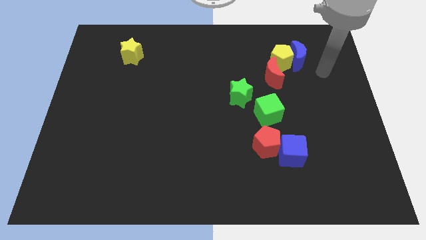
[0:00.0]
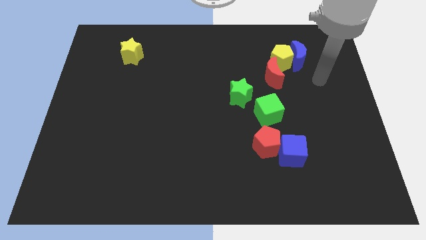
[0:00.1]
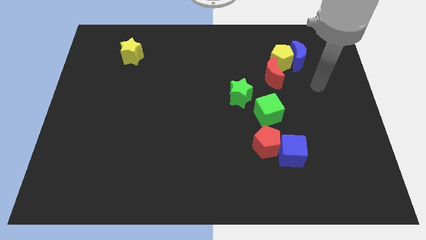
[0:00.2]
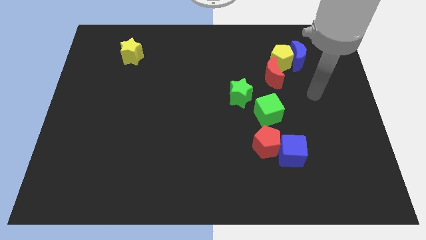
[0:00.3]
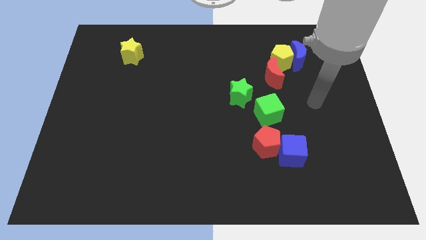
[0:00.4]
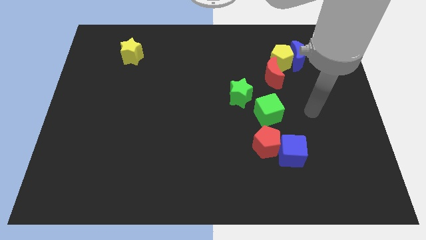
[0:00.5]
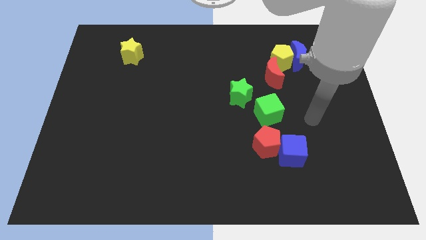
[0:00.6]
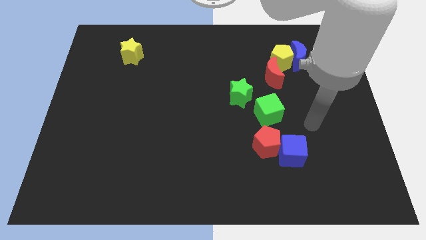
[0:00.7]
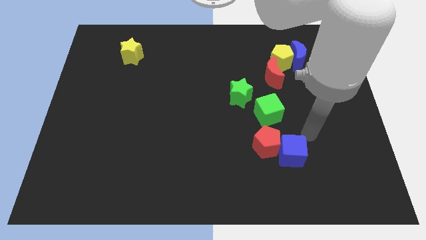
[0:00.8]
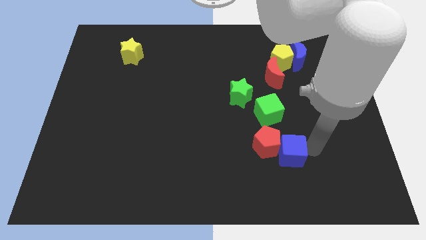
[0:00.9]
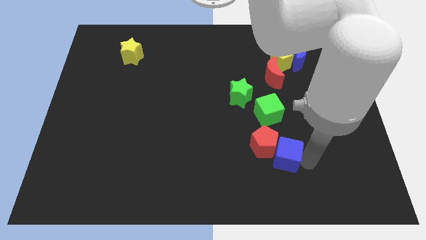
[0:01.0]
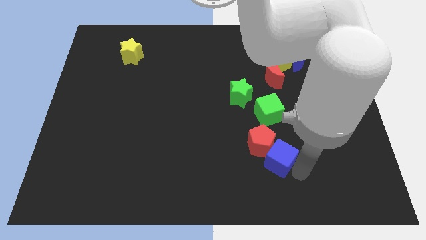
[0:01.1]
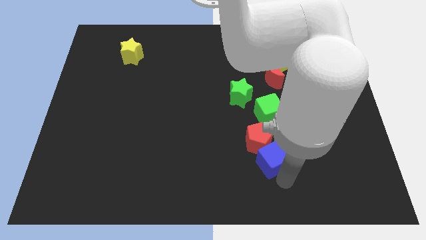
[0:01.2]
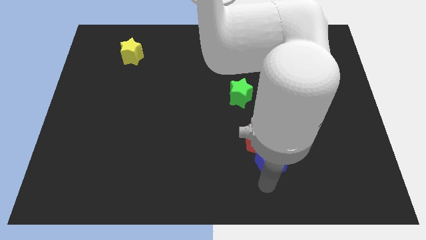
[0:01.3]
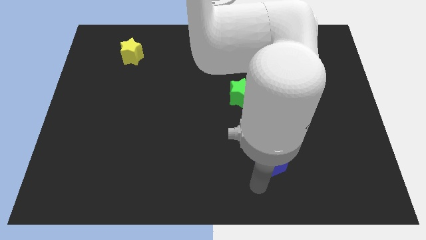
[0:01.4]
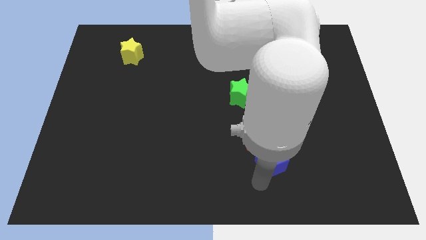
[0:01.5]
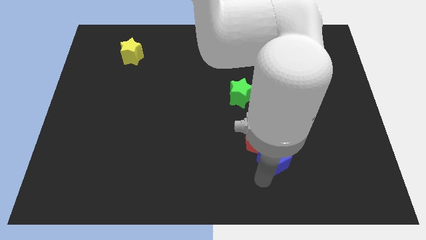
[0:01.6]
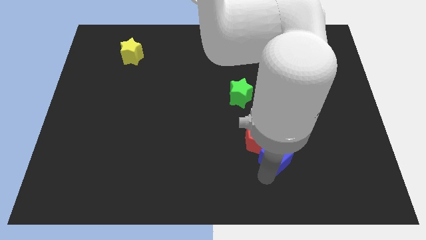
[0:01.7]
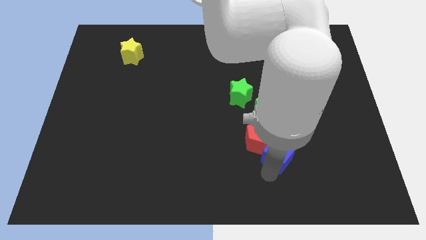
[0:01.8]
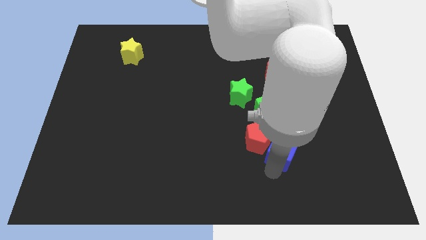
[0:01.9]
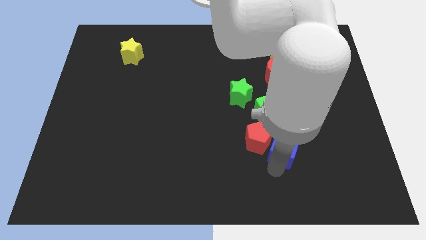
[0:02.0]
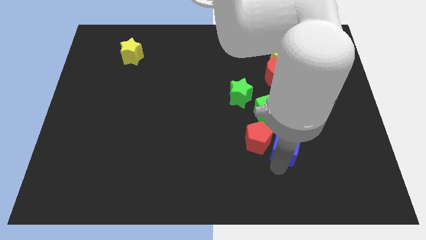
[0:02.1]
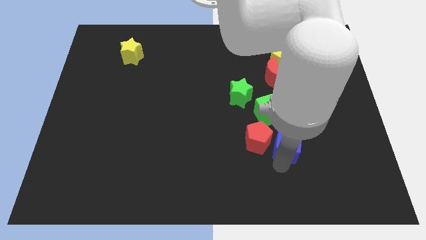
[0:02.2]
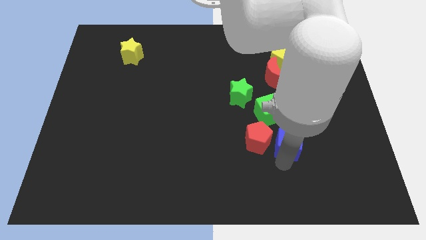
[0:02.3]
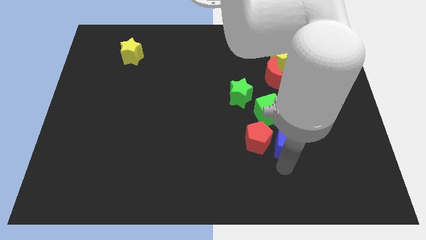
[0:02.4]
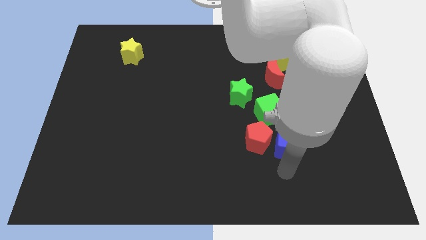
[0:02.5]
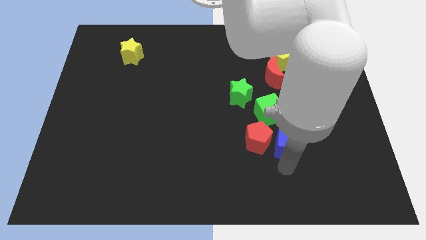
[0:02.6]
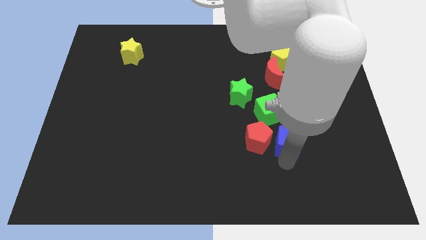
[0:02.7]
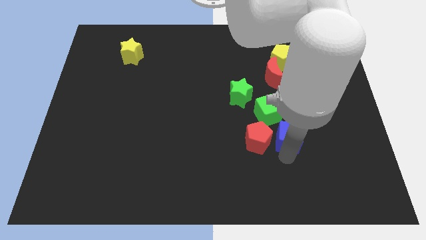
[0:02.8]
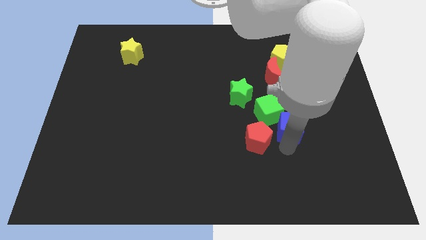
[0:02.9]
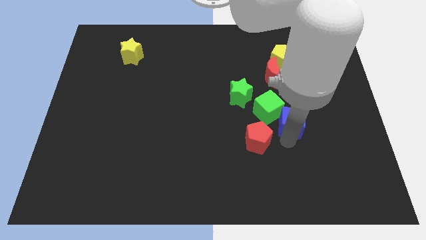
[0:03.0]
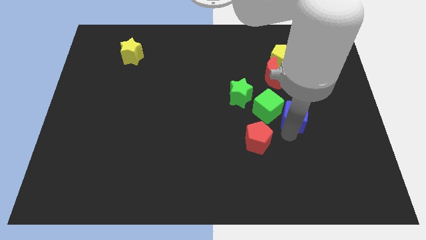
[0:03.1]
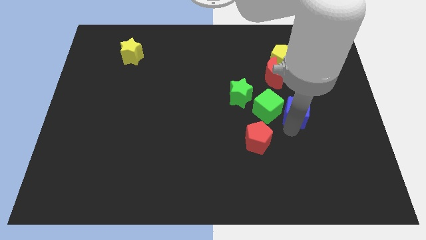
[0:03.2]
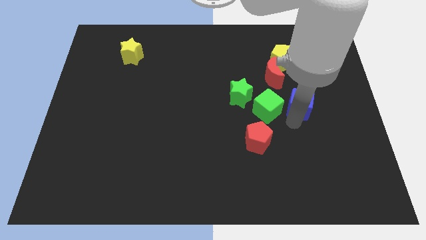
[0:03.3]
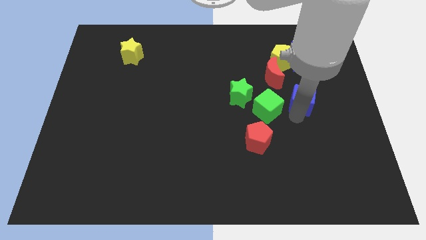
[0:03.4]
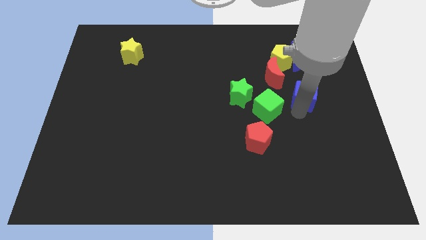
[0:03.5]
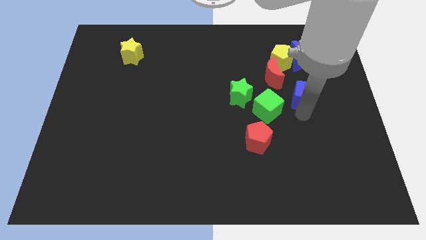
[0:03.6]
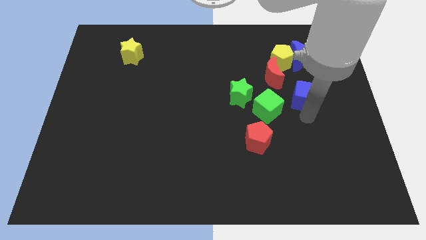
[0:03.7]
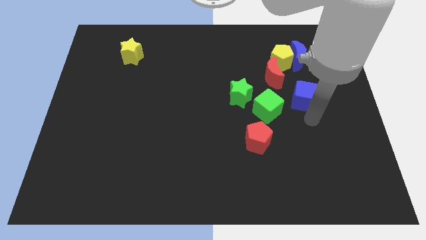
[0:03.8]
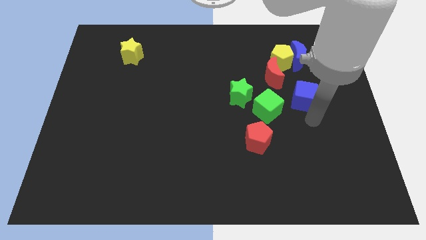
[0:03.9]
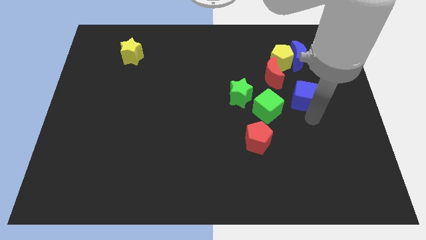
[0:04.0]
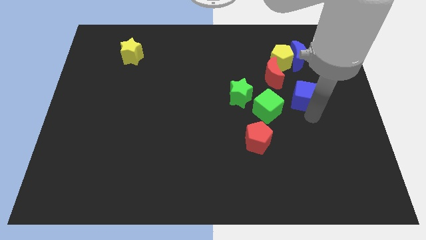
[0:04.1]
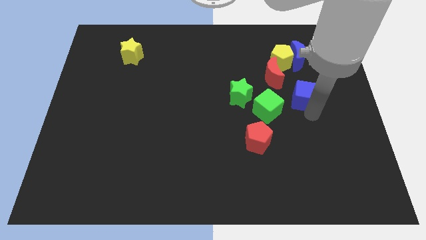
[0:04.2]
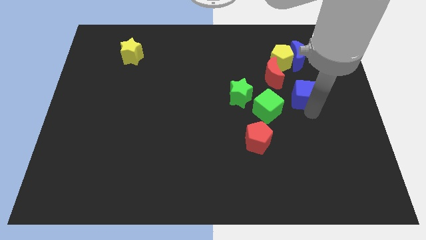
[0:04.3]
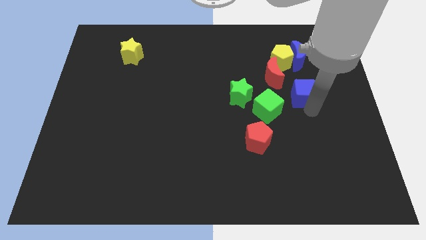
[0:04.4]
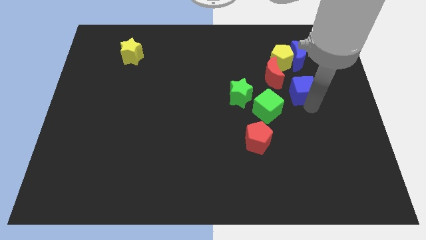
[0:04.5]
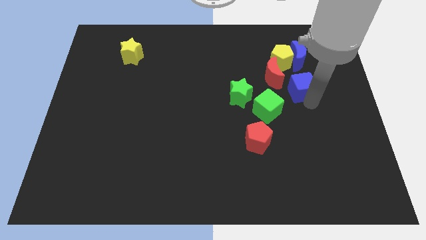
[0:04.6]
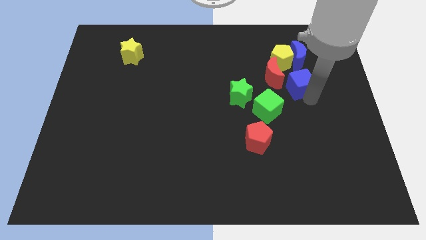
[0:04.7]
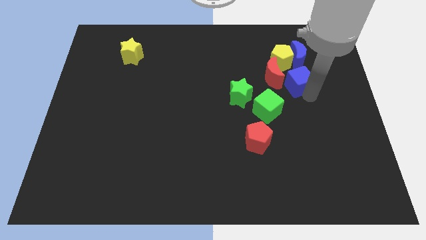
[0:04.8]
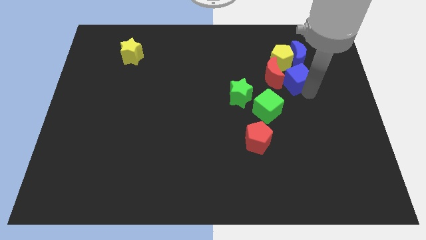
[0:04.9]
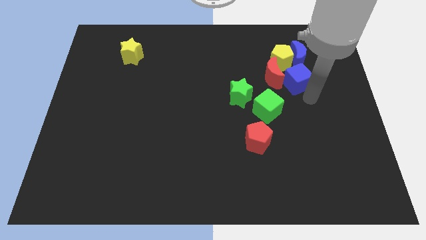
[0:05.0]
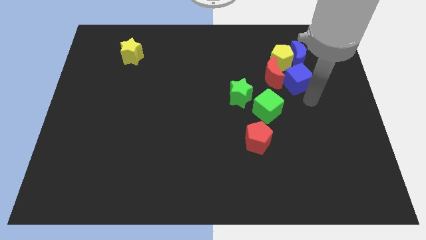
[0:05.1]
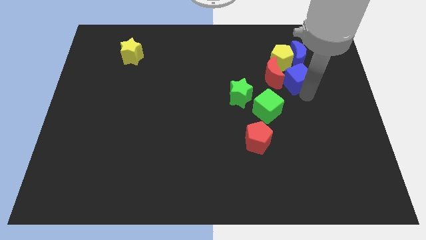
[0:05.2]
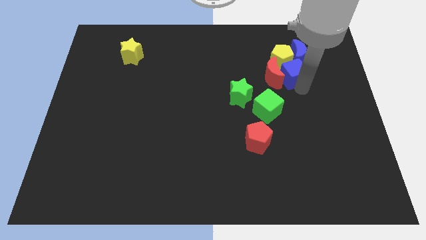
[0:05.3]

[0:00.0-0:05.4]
slide the blue cube close to the yellow pentagon

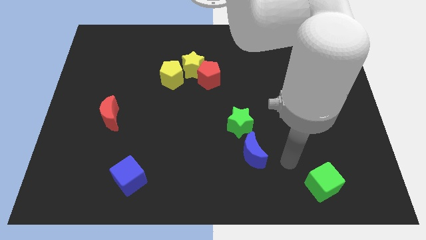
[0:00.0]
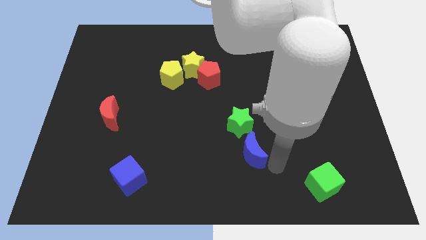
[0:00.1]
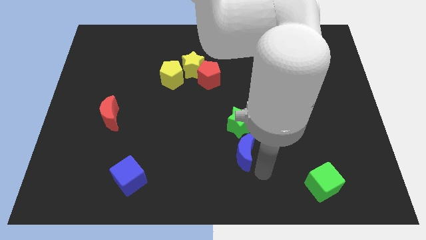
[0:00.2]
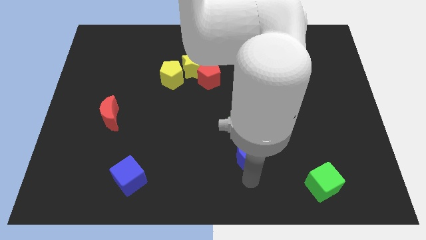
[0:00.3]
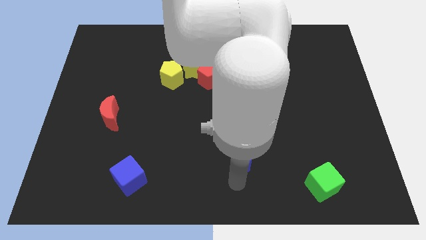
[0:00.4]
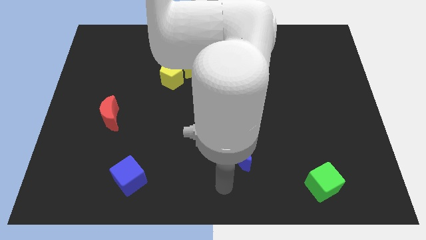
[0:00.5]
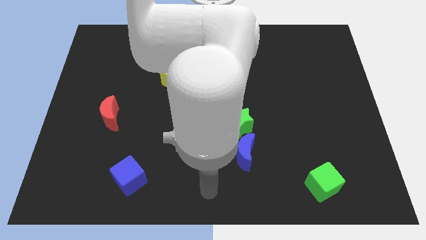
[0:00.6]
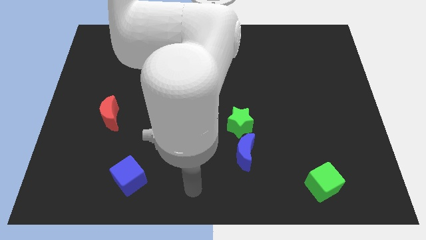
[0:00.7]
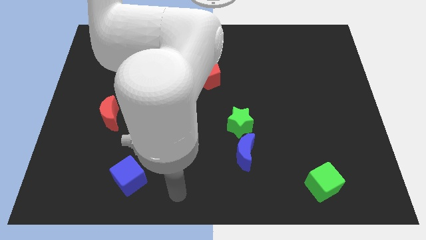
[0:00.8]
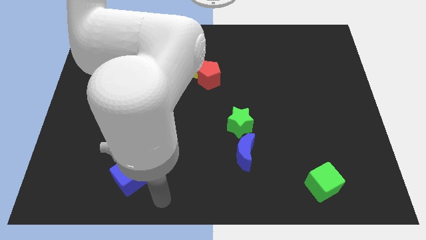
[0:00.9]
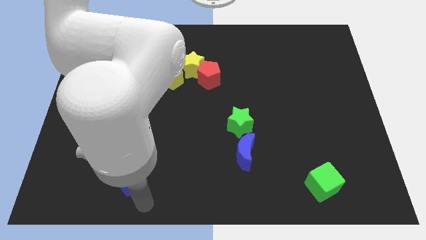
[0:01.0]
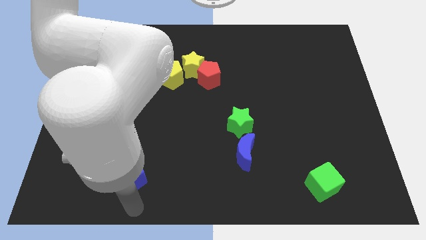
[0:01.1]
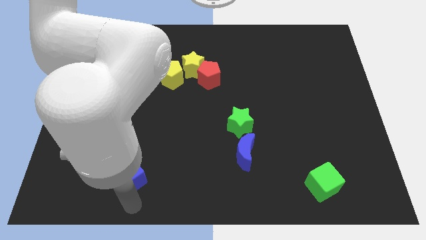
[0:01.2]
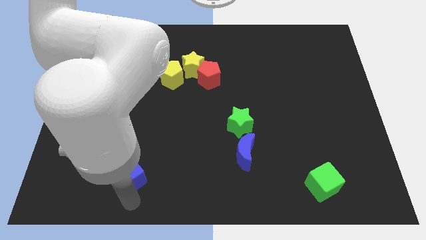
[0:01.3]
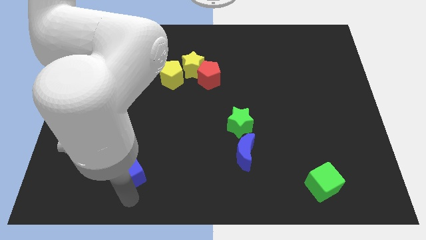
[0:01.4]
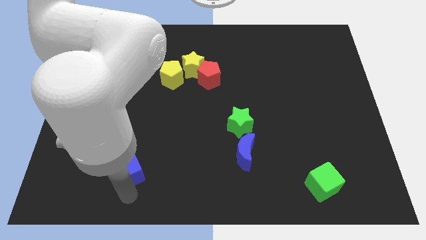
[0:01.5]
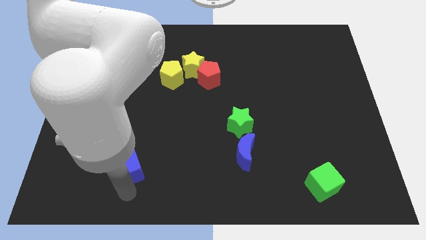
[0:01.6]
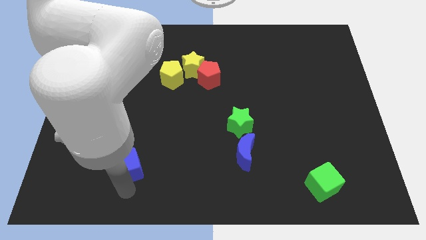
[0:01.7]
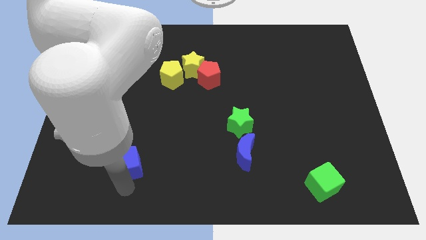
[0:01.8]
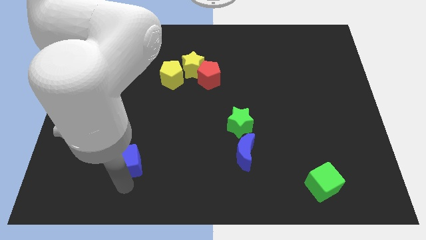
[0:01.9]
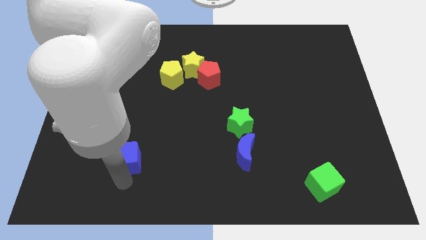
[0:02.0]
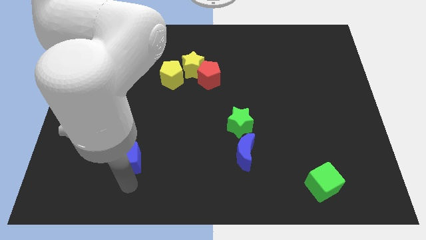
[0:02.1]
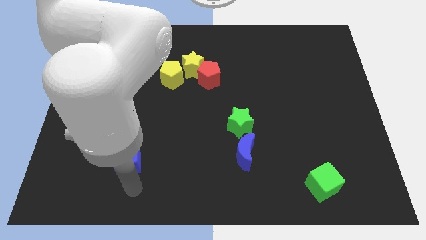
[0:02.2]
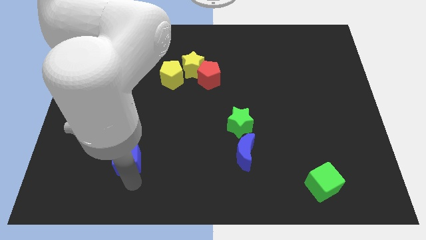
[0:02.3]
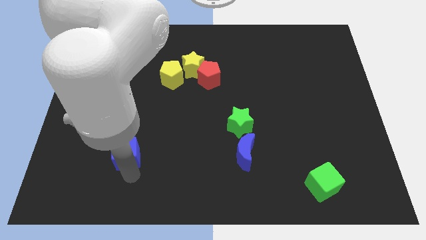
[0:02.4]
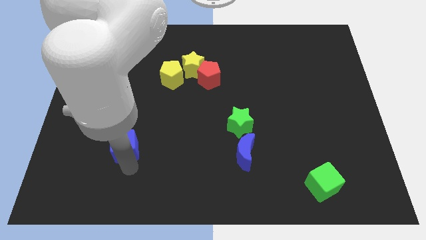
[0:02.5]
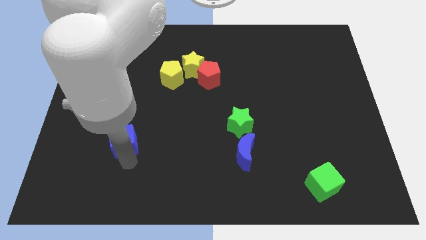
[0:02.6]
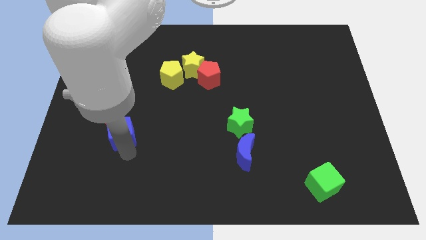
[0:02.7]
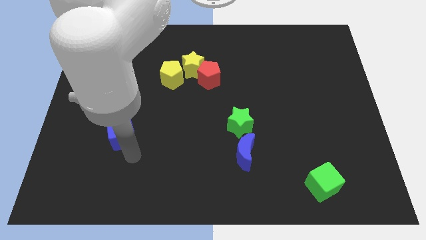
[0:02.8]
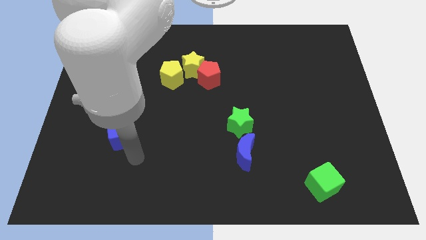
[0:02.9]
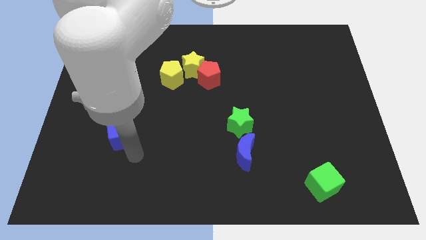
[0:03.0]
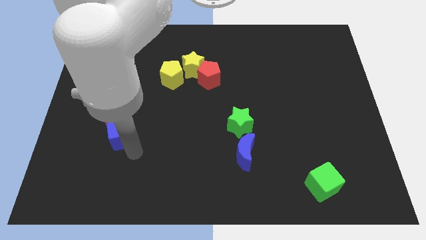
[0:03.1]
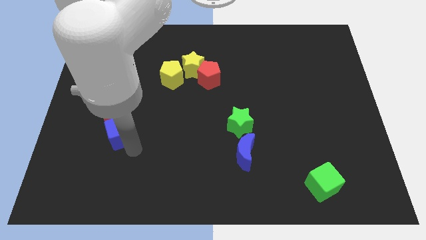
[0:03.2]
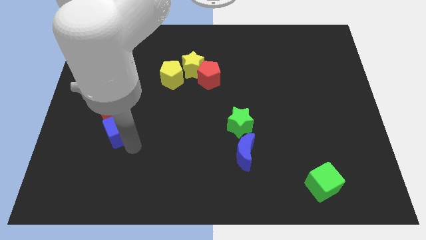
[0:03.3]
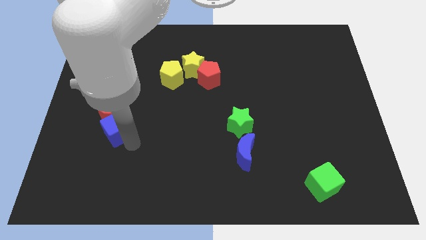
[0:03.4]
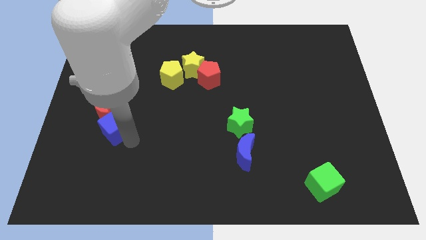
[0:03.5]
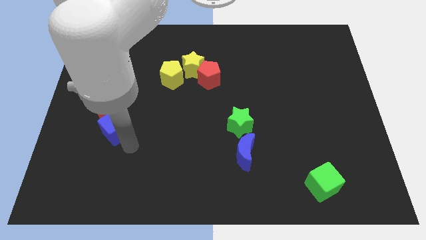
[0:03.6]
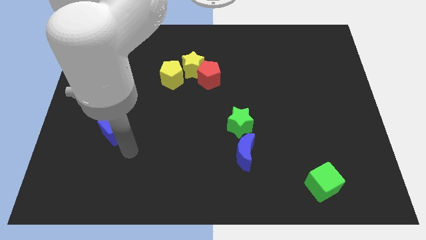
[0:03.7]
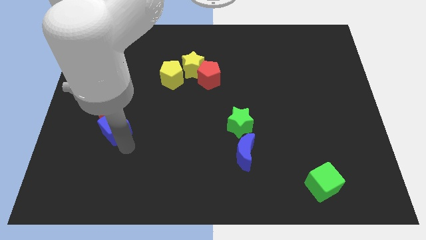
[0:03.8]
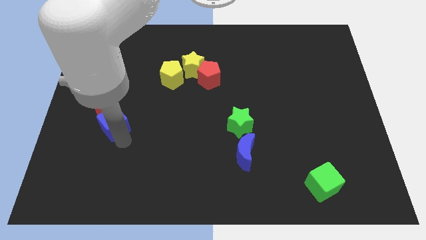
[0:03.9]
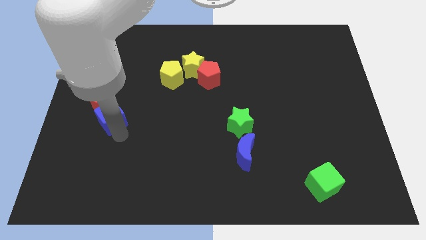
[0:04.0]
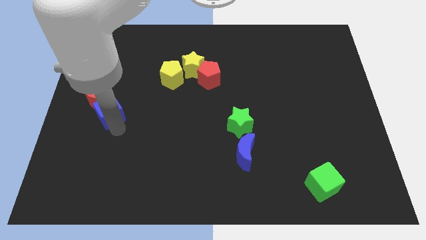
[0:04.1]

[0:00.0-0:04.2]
slide the blue cube close to the red moon
